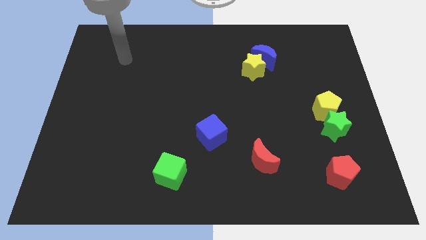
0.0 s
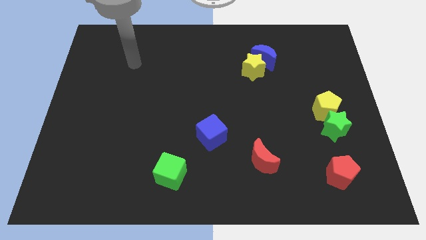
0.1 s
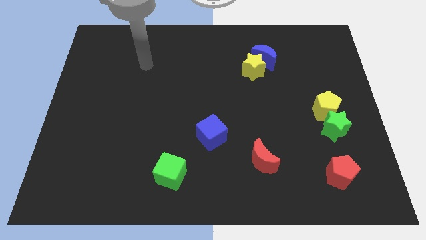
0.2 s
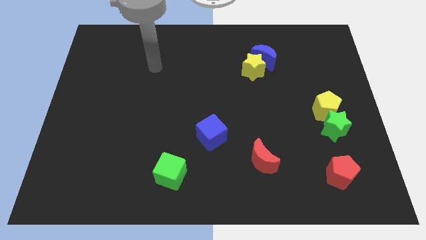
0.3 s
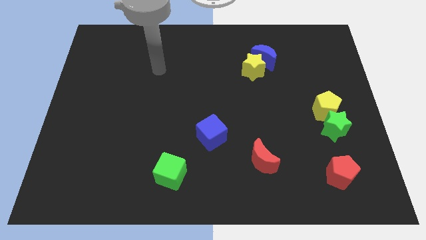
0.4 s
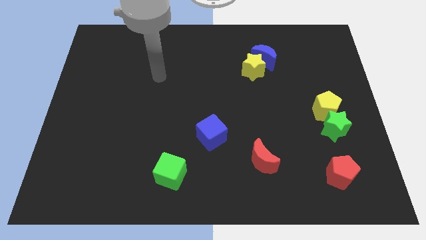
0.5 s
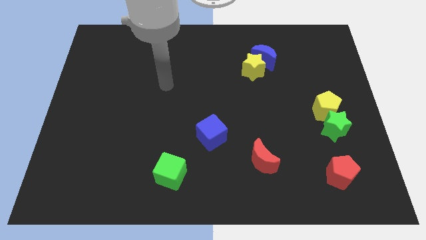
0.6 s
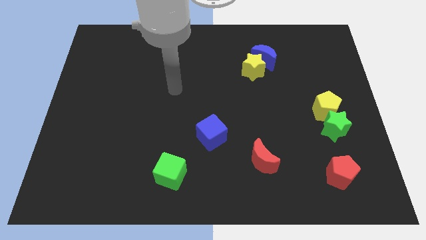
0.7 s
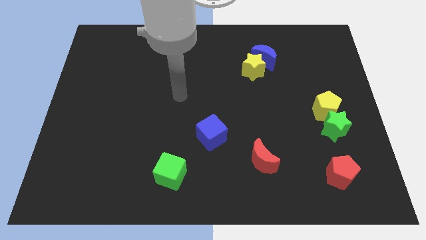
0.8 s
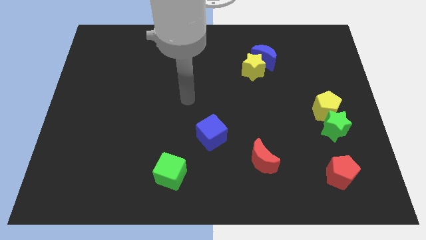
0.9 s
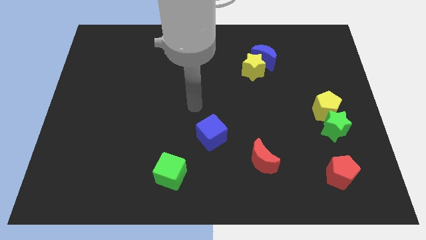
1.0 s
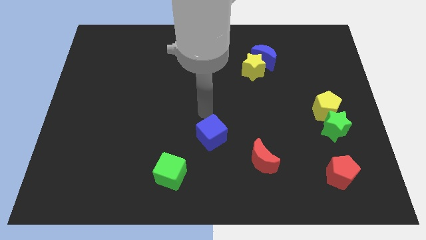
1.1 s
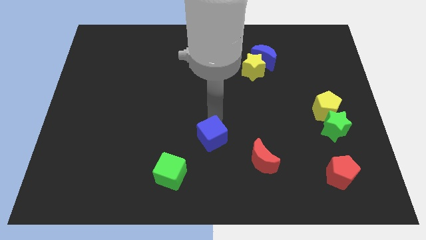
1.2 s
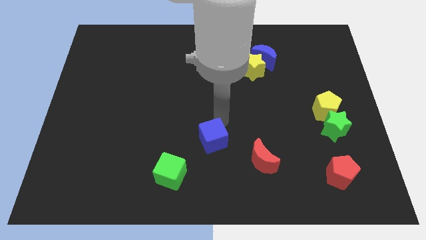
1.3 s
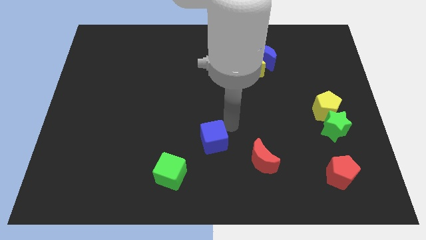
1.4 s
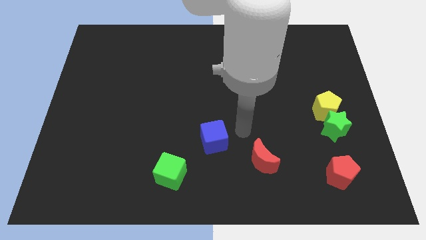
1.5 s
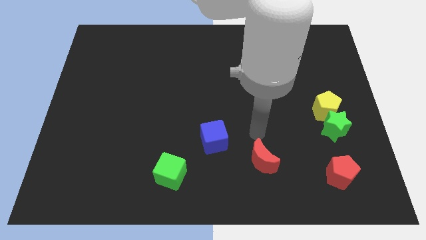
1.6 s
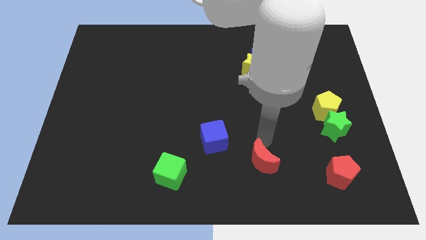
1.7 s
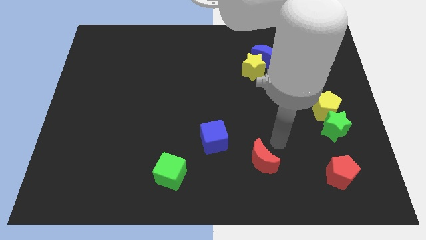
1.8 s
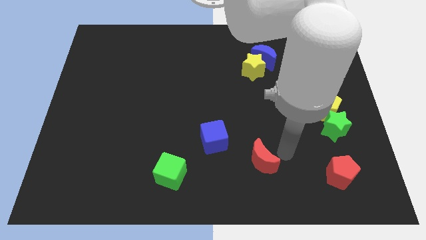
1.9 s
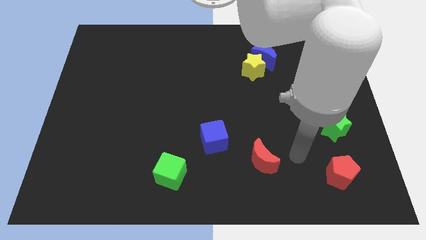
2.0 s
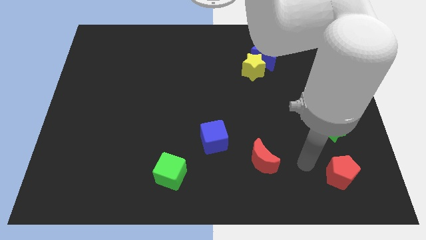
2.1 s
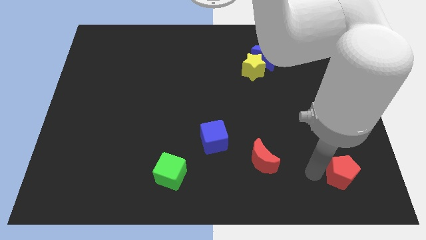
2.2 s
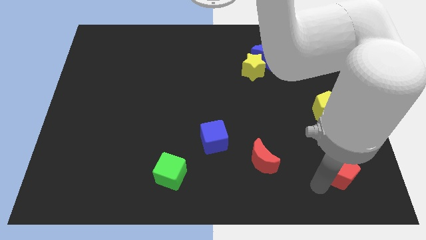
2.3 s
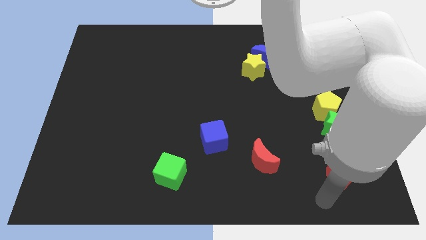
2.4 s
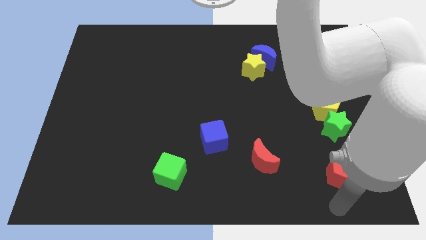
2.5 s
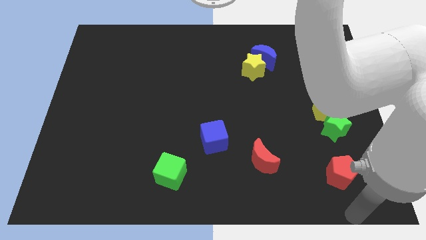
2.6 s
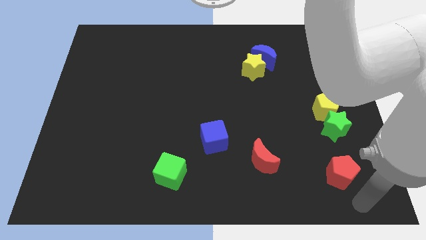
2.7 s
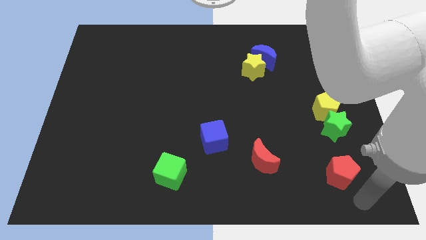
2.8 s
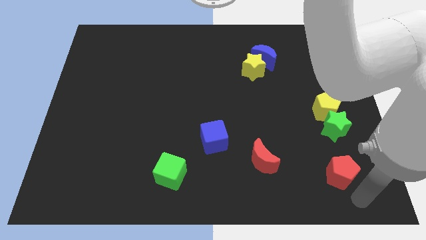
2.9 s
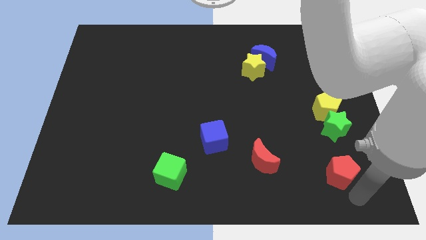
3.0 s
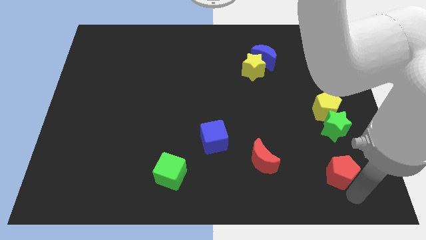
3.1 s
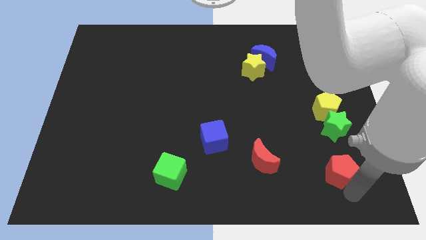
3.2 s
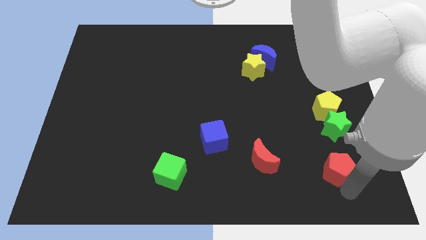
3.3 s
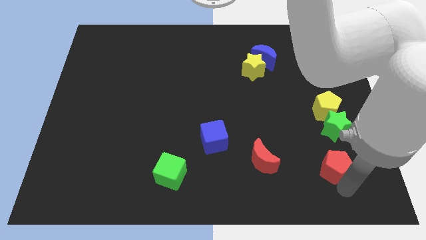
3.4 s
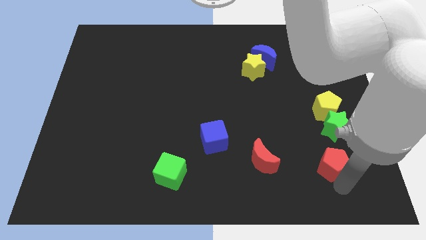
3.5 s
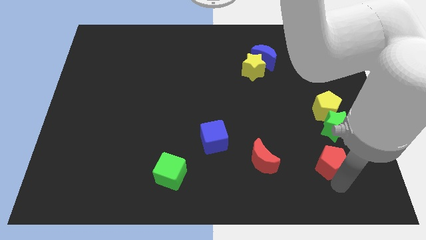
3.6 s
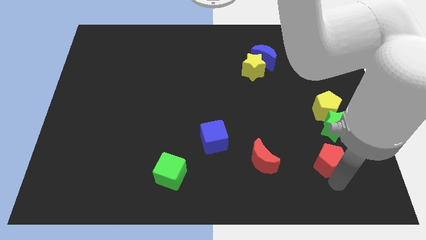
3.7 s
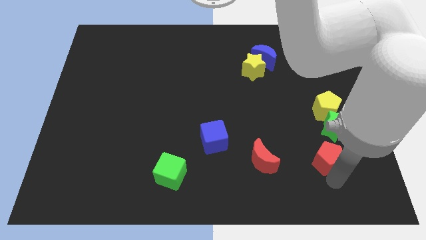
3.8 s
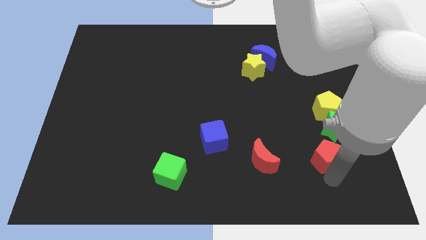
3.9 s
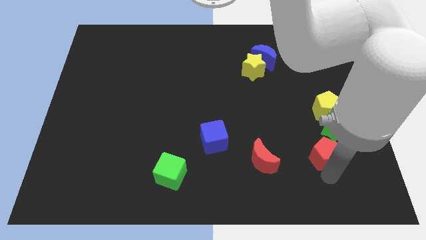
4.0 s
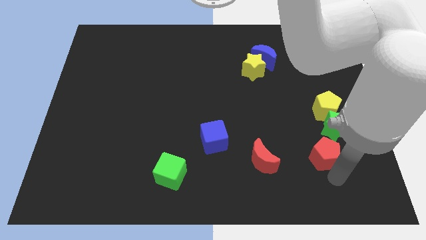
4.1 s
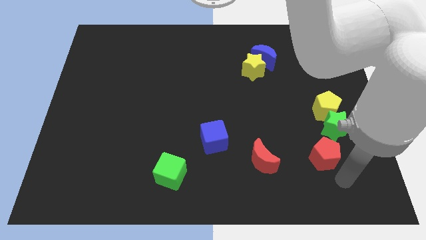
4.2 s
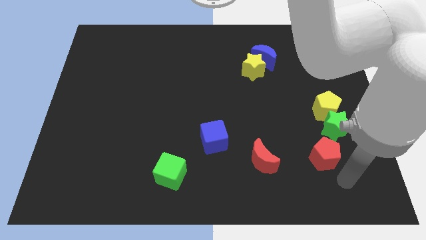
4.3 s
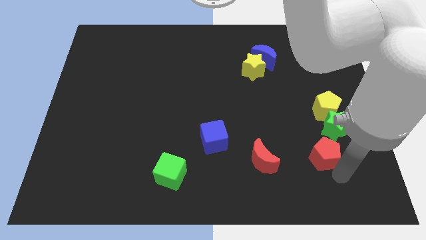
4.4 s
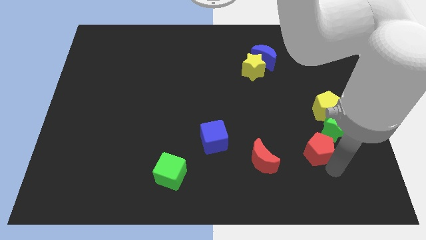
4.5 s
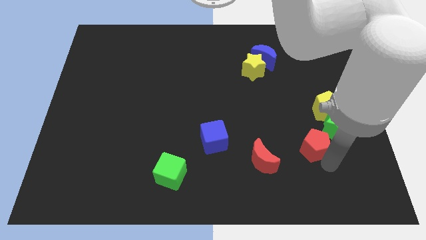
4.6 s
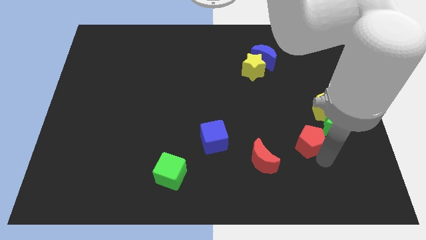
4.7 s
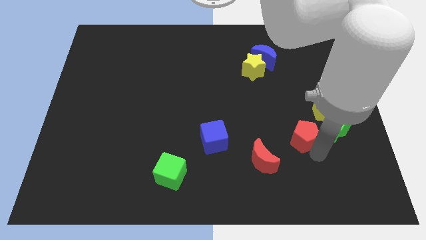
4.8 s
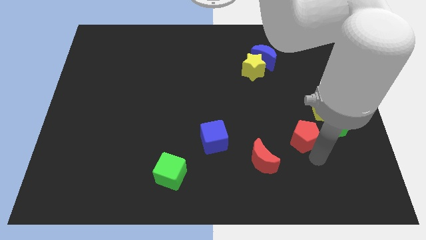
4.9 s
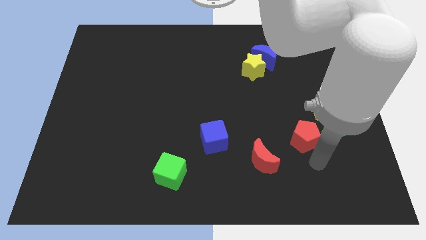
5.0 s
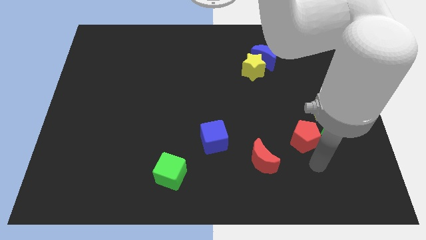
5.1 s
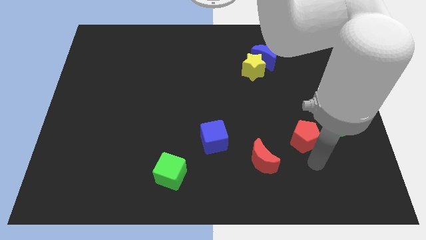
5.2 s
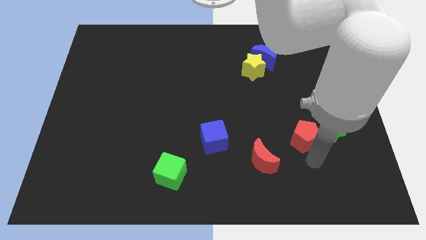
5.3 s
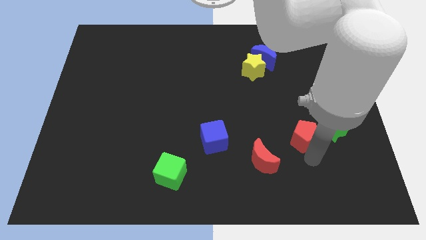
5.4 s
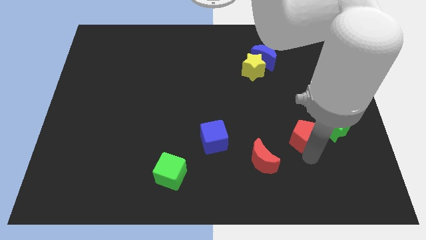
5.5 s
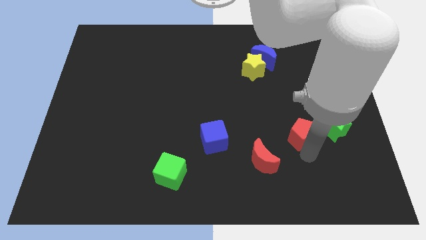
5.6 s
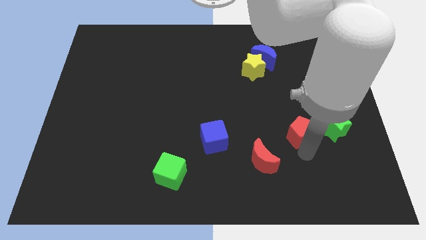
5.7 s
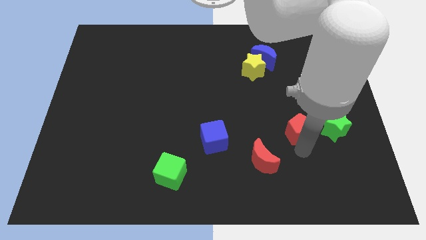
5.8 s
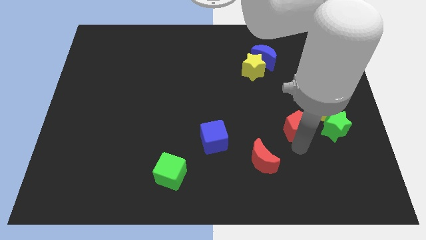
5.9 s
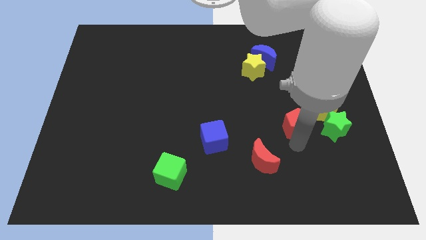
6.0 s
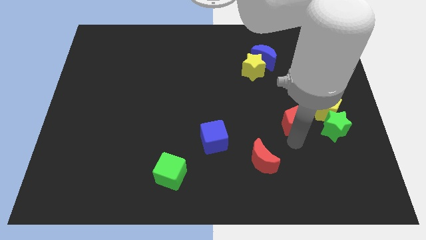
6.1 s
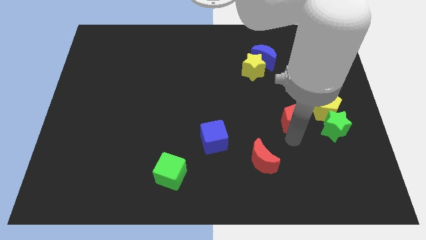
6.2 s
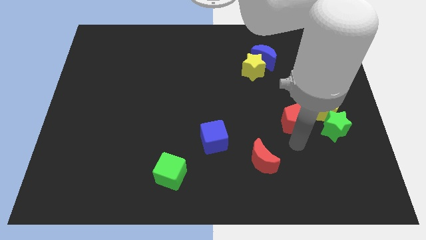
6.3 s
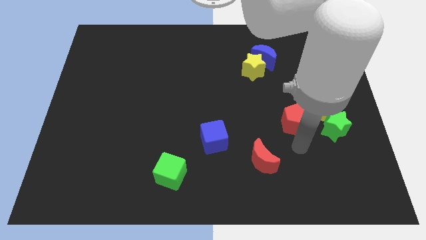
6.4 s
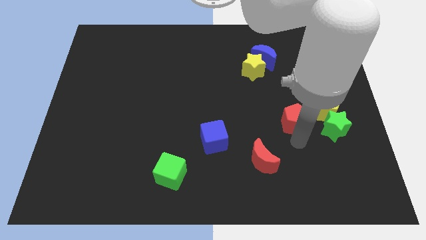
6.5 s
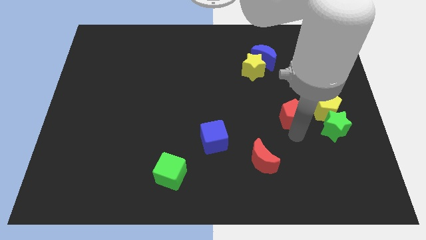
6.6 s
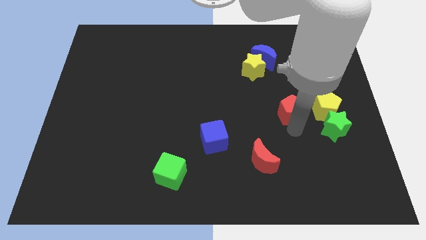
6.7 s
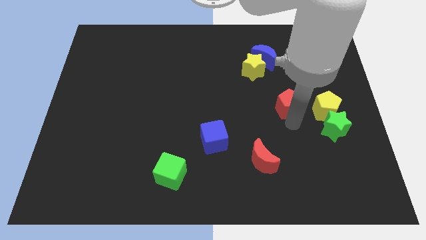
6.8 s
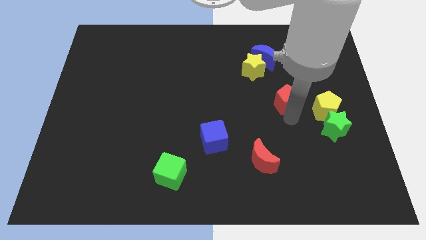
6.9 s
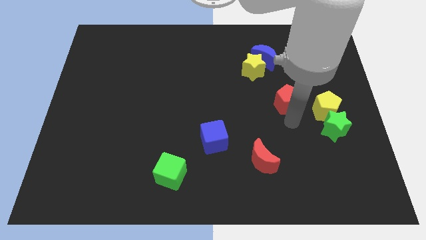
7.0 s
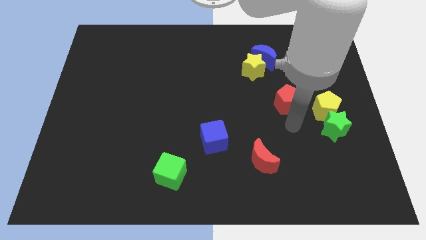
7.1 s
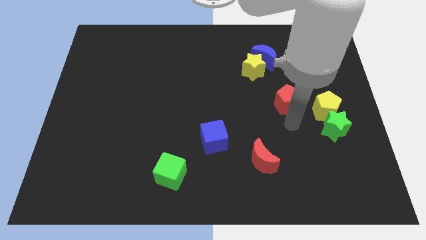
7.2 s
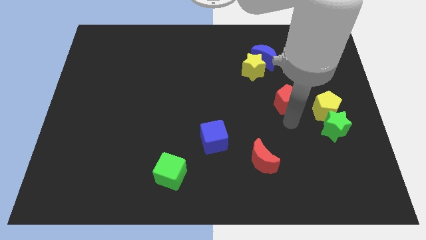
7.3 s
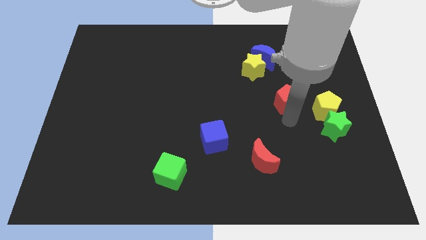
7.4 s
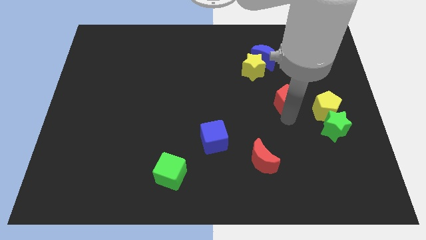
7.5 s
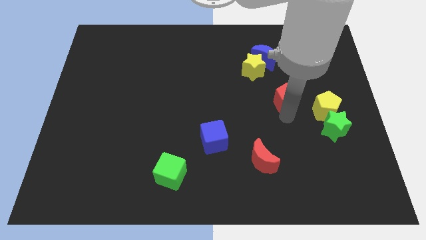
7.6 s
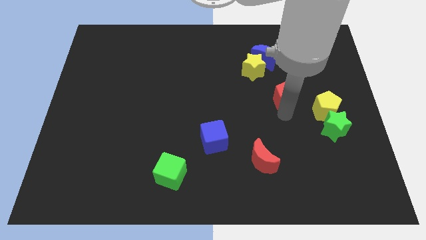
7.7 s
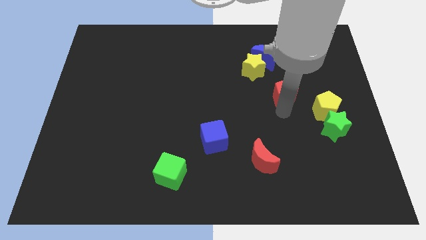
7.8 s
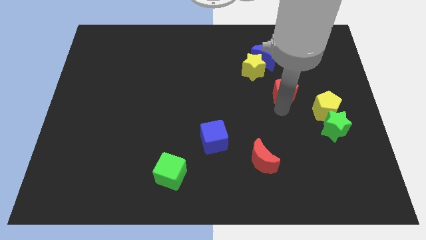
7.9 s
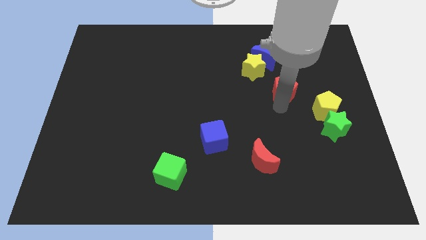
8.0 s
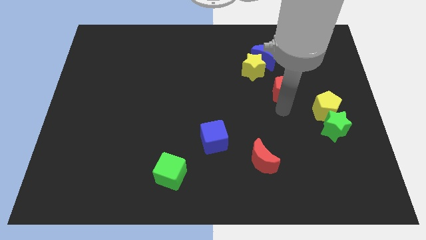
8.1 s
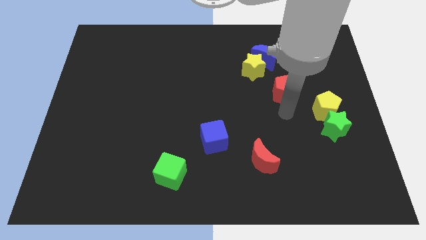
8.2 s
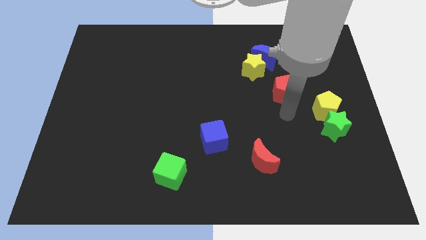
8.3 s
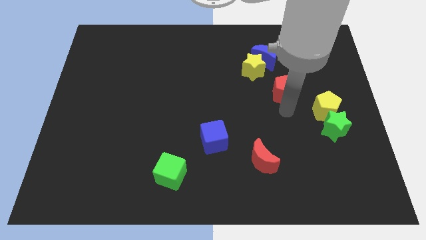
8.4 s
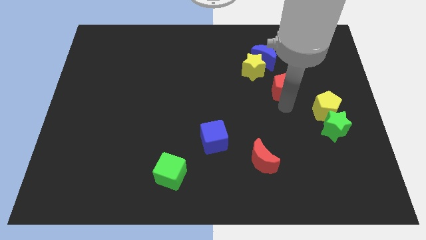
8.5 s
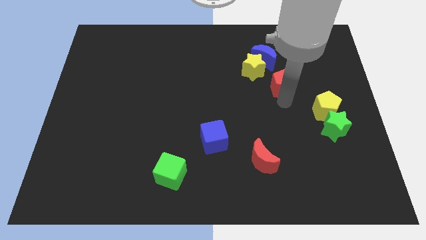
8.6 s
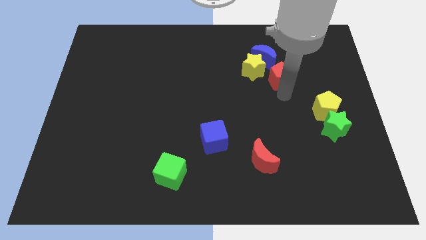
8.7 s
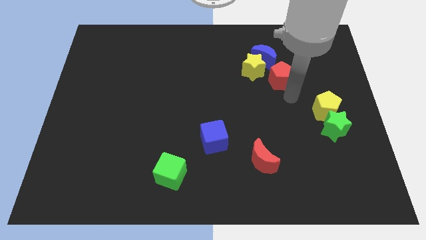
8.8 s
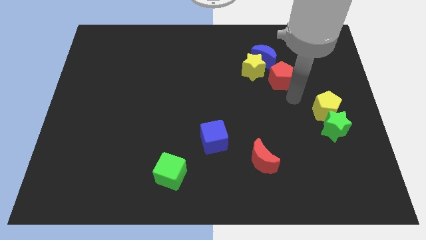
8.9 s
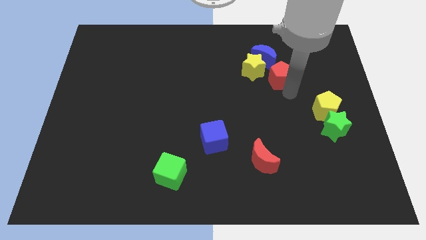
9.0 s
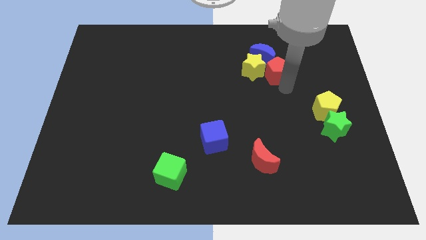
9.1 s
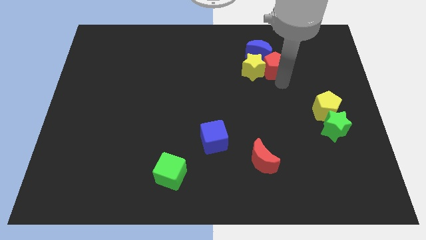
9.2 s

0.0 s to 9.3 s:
put the red pentagon close to the blue moon
